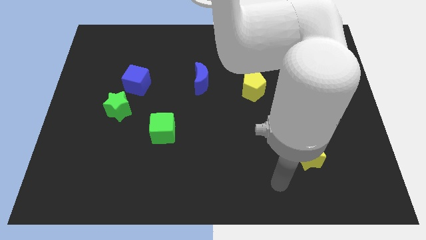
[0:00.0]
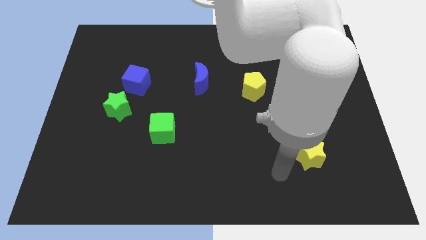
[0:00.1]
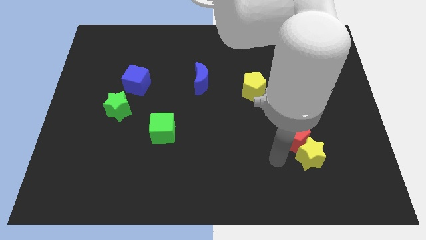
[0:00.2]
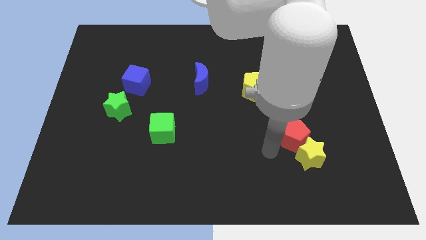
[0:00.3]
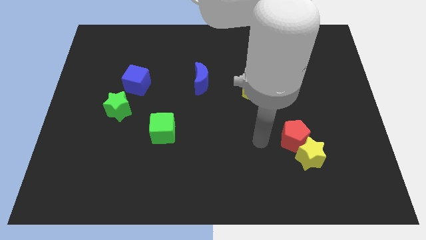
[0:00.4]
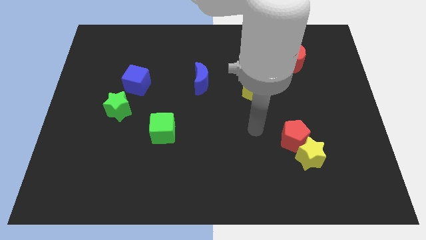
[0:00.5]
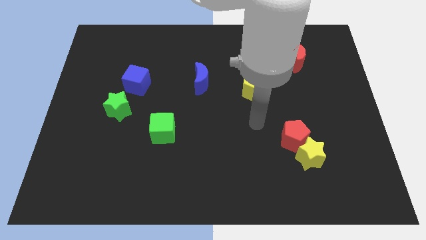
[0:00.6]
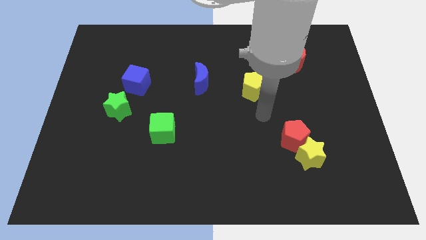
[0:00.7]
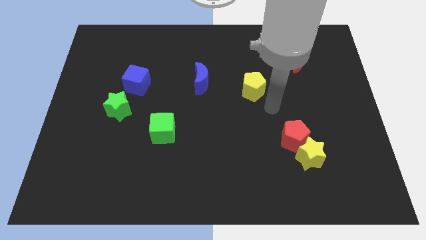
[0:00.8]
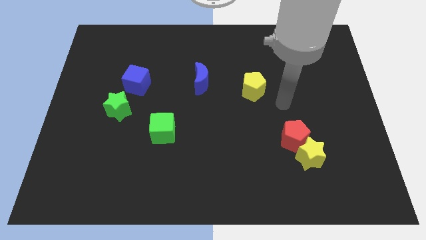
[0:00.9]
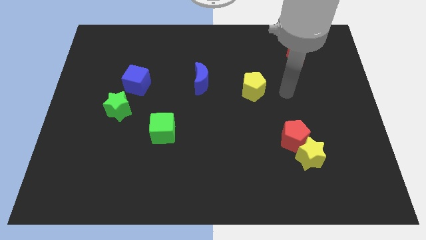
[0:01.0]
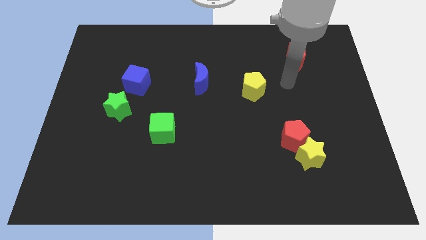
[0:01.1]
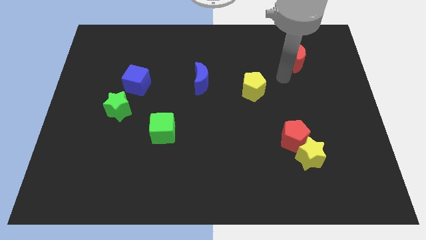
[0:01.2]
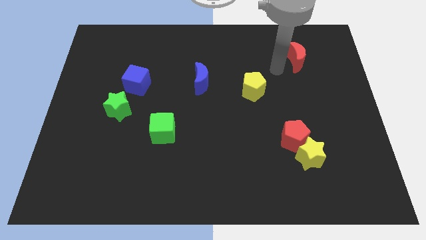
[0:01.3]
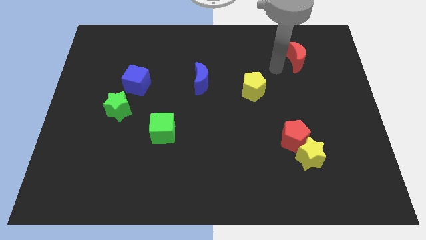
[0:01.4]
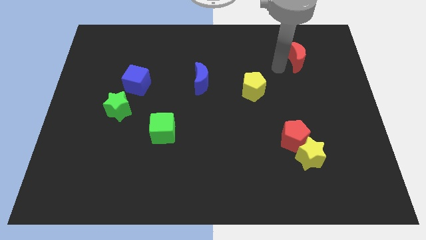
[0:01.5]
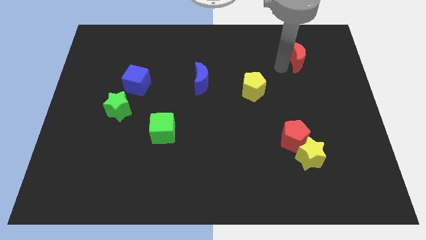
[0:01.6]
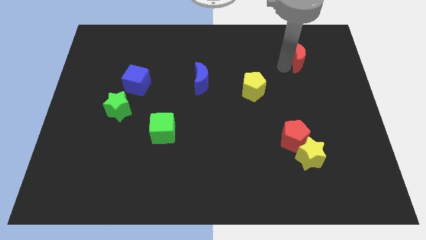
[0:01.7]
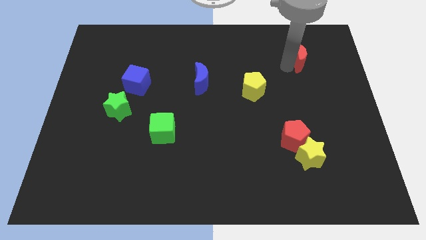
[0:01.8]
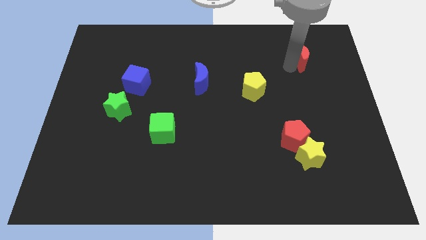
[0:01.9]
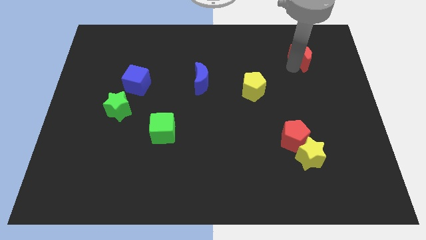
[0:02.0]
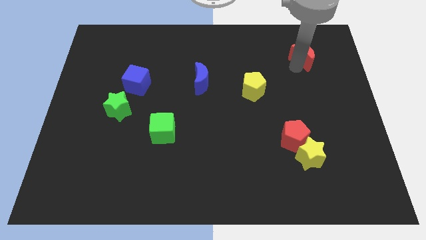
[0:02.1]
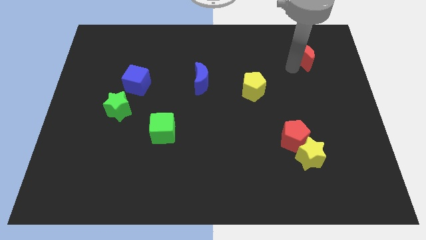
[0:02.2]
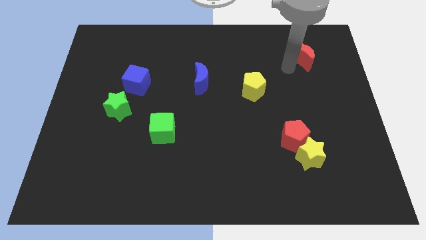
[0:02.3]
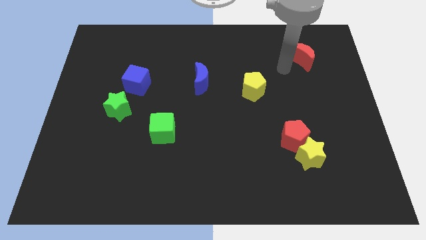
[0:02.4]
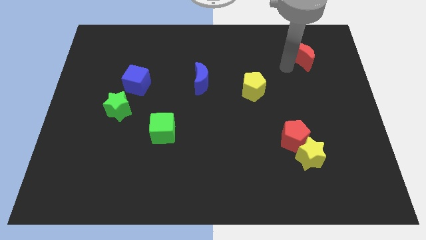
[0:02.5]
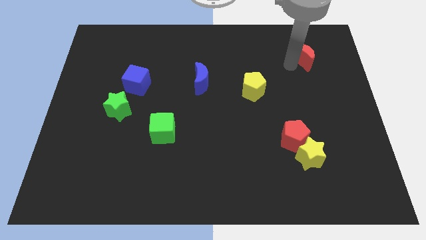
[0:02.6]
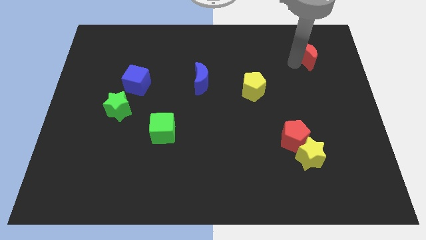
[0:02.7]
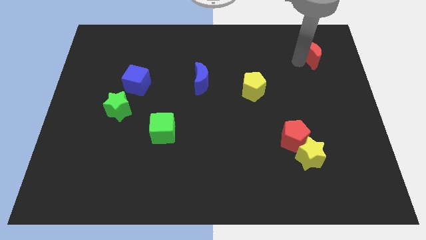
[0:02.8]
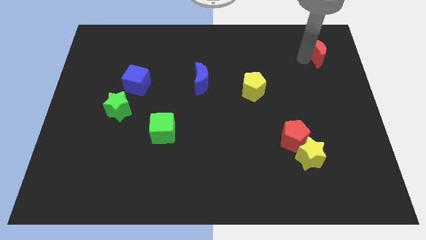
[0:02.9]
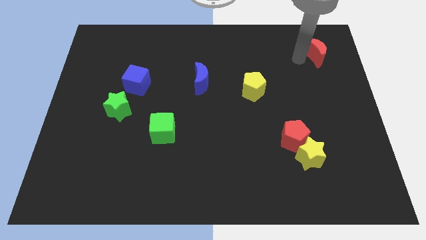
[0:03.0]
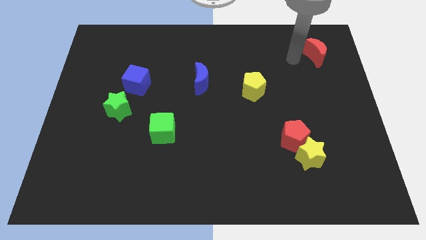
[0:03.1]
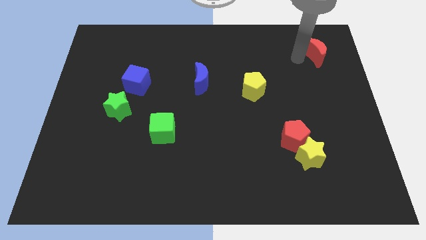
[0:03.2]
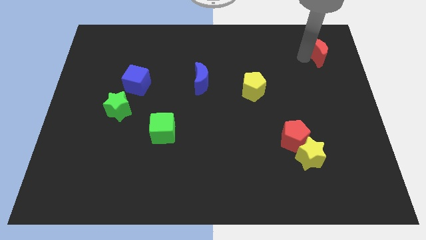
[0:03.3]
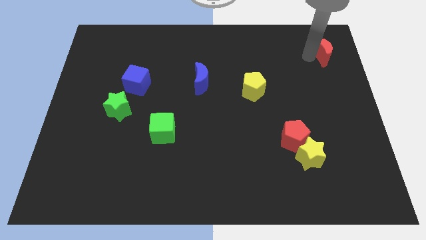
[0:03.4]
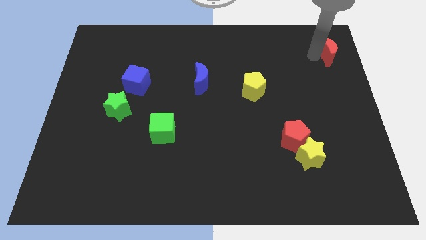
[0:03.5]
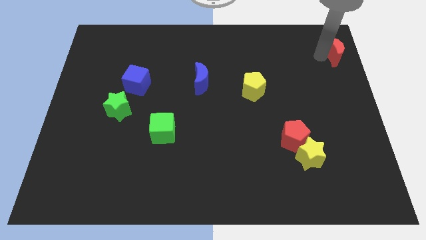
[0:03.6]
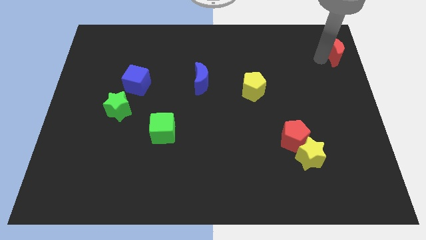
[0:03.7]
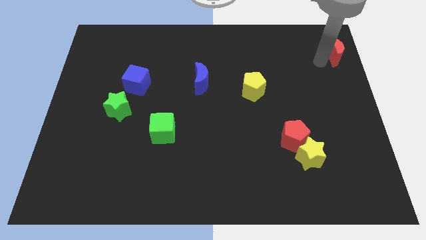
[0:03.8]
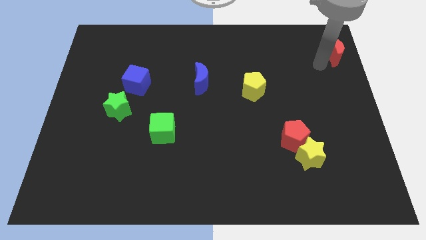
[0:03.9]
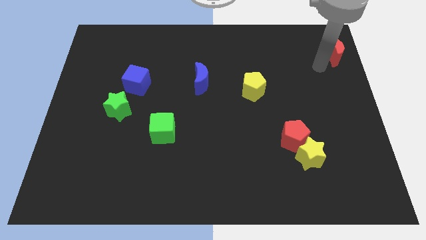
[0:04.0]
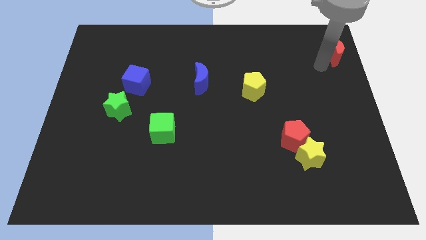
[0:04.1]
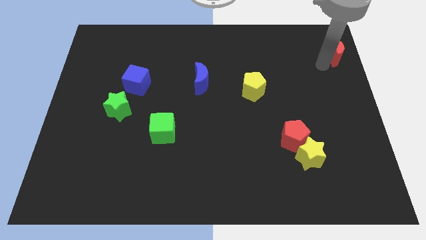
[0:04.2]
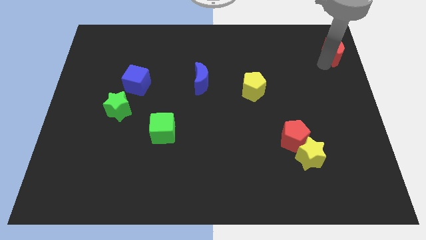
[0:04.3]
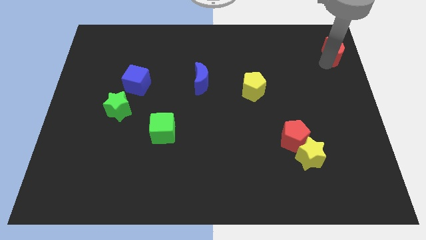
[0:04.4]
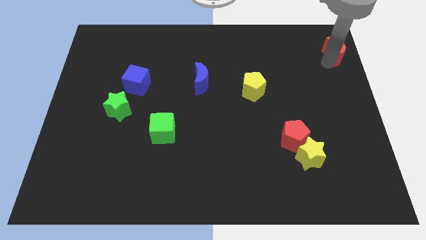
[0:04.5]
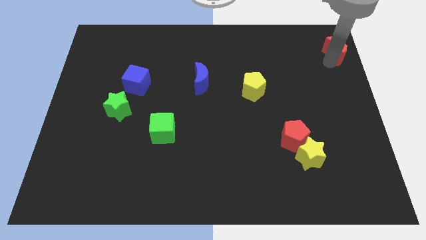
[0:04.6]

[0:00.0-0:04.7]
put the red moon to the top right of the board

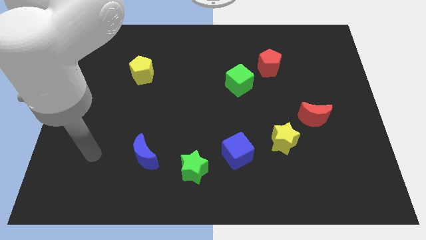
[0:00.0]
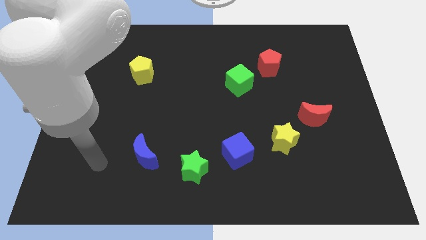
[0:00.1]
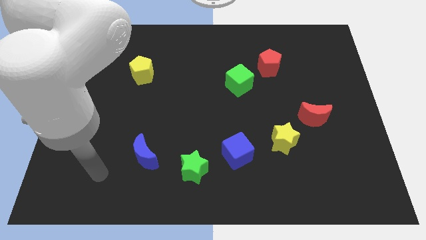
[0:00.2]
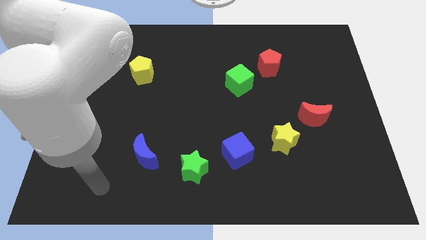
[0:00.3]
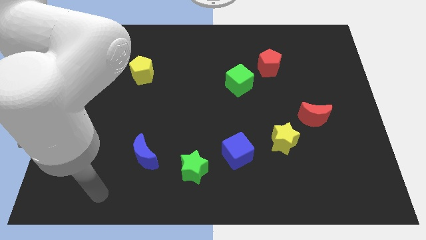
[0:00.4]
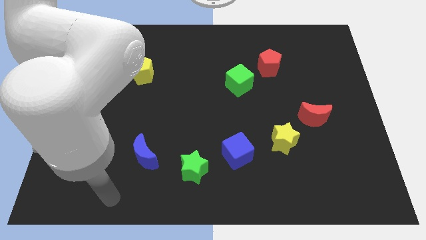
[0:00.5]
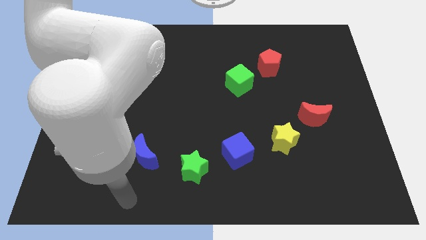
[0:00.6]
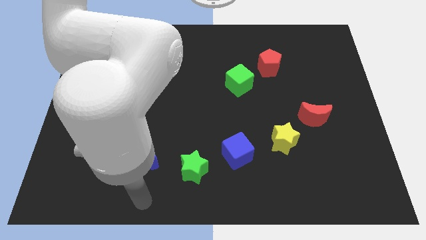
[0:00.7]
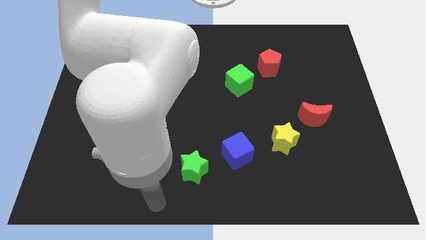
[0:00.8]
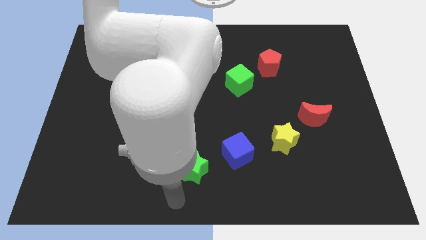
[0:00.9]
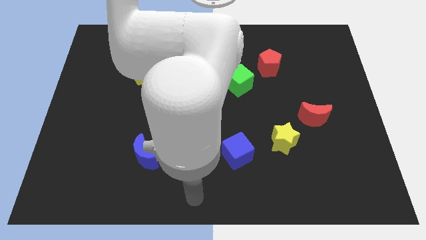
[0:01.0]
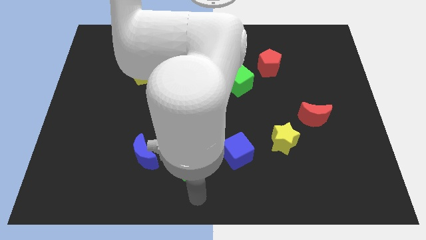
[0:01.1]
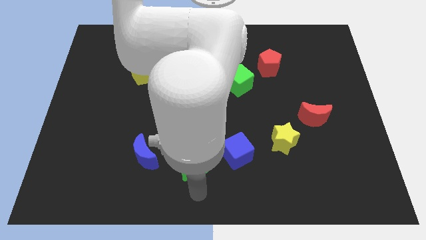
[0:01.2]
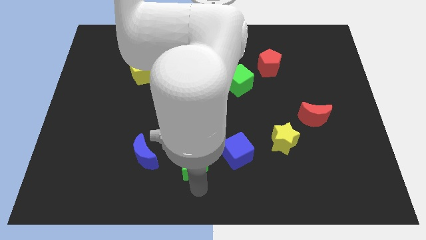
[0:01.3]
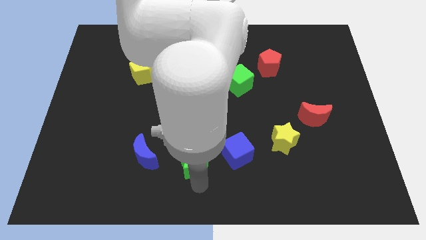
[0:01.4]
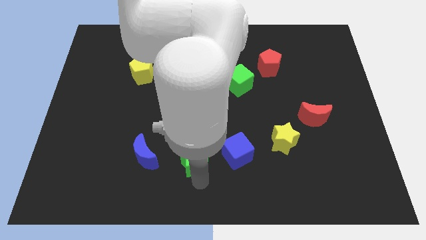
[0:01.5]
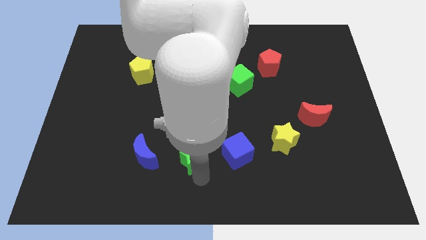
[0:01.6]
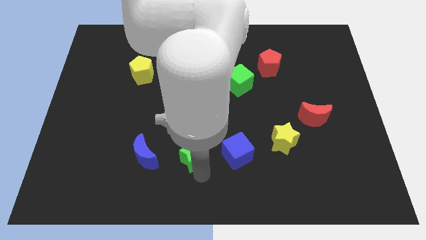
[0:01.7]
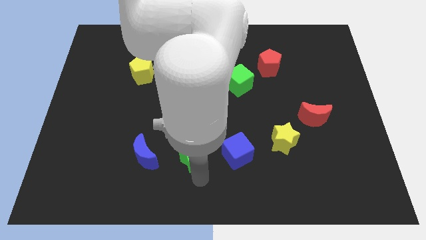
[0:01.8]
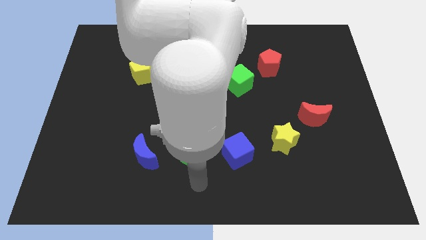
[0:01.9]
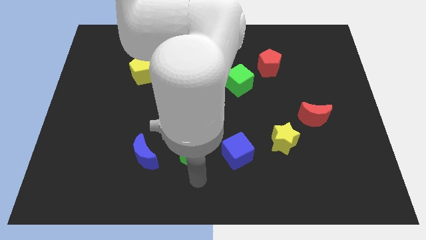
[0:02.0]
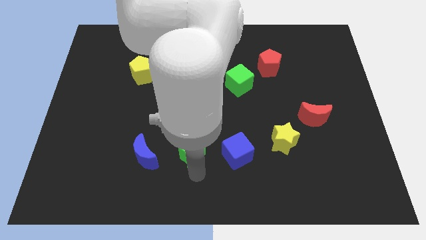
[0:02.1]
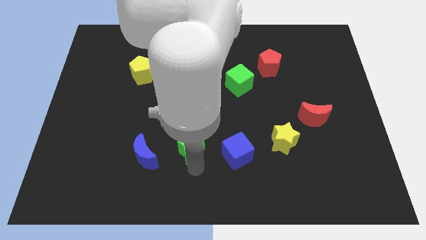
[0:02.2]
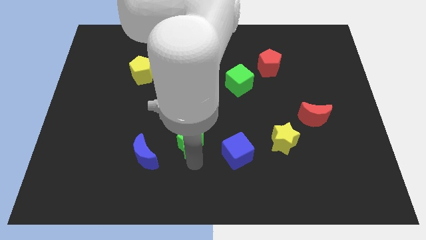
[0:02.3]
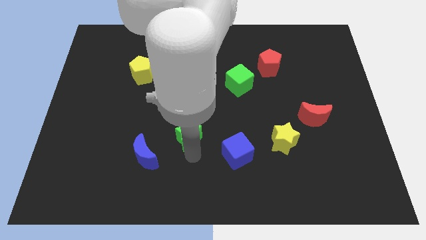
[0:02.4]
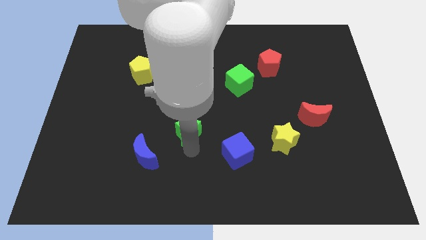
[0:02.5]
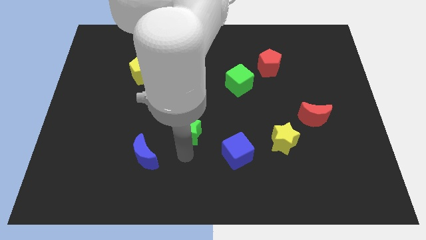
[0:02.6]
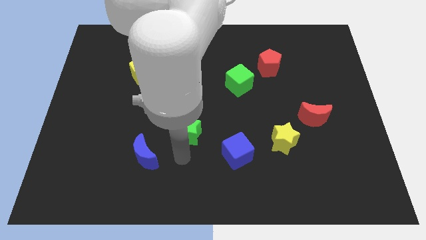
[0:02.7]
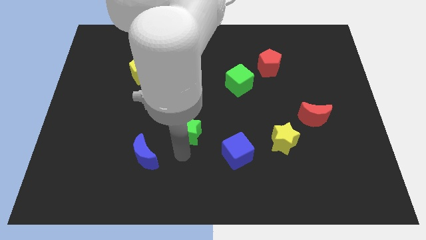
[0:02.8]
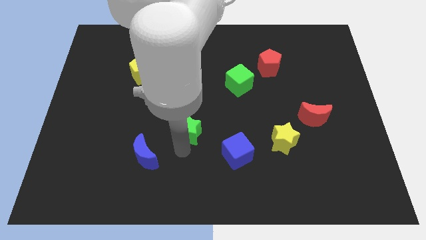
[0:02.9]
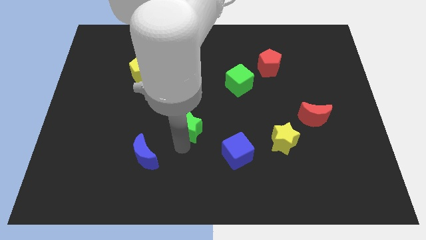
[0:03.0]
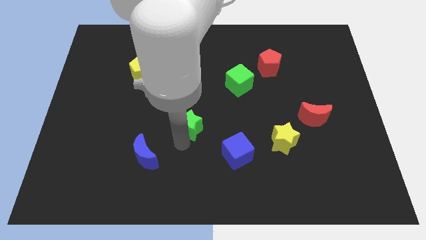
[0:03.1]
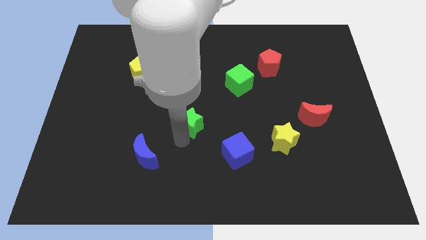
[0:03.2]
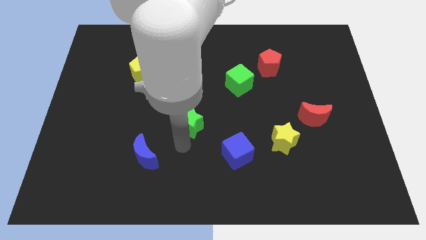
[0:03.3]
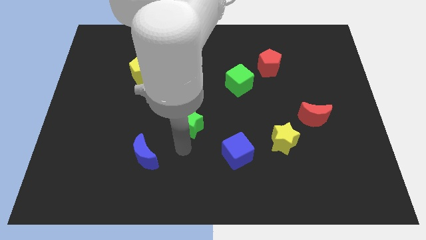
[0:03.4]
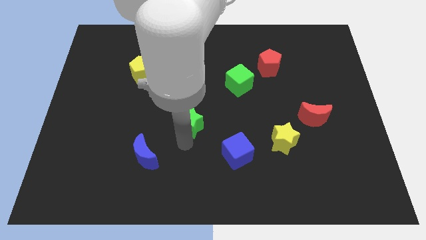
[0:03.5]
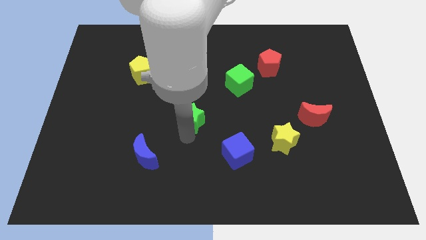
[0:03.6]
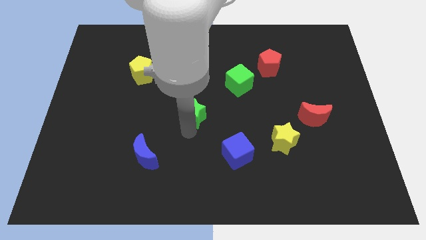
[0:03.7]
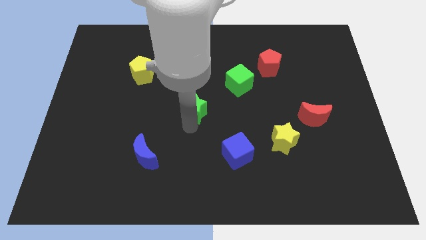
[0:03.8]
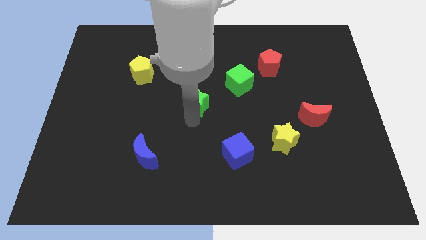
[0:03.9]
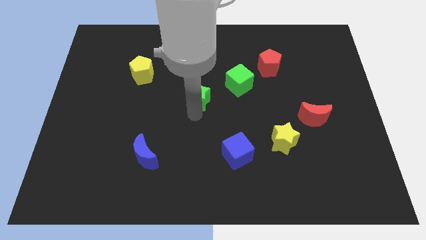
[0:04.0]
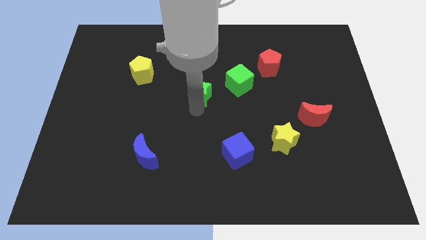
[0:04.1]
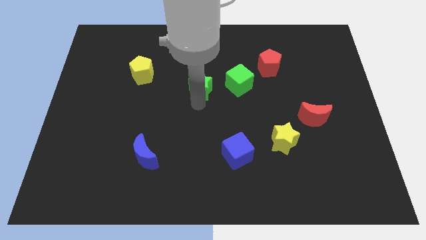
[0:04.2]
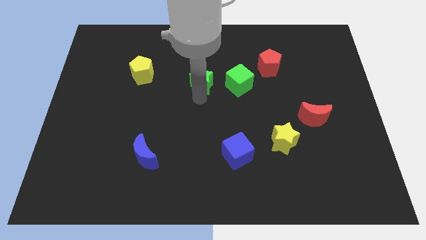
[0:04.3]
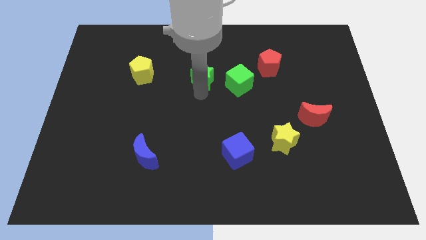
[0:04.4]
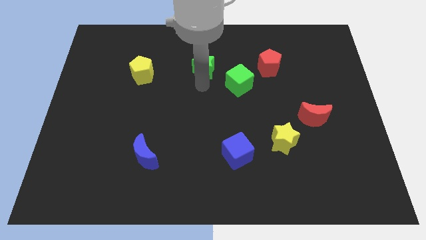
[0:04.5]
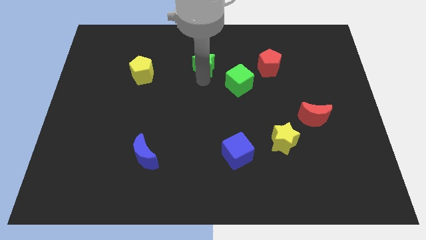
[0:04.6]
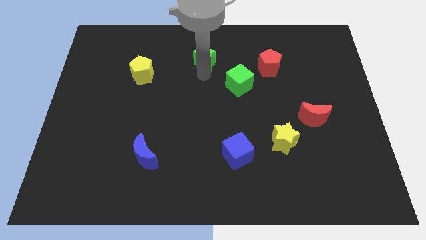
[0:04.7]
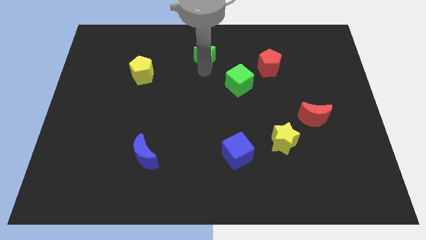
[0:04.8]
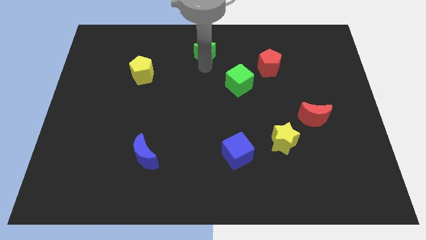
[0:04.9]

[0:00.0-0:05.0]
push the green star to the top side
